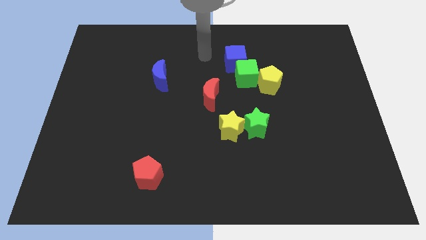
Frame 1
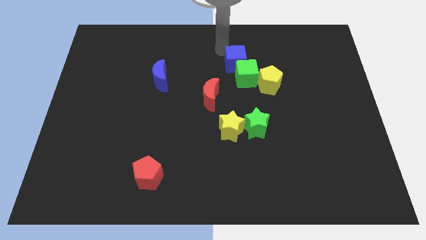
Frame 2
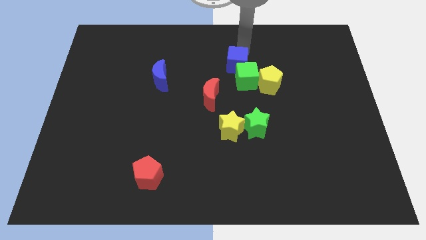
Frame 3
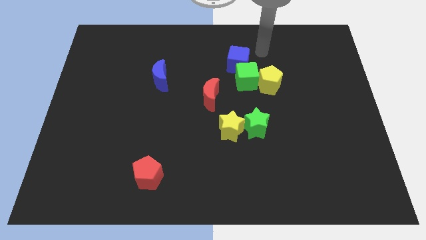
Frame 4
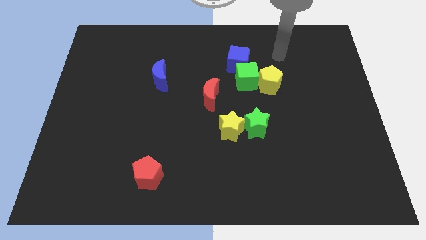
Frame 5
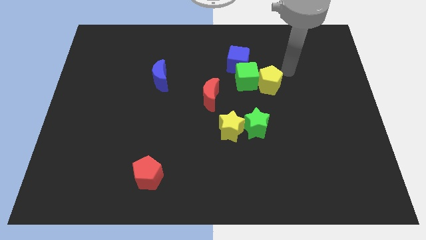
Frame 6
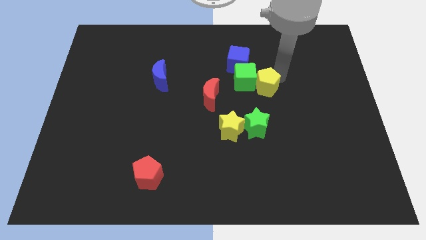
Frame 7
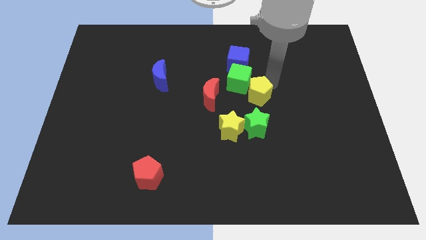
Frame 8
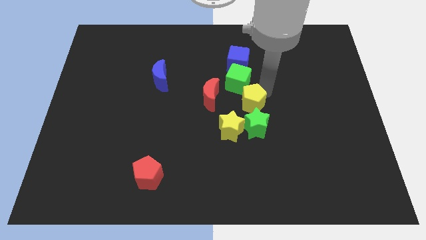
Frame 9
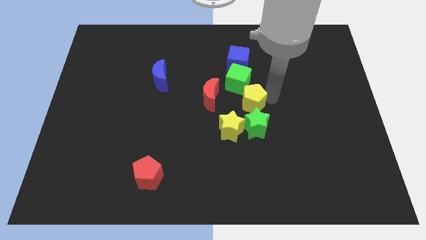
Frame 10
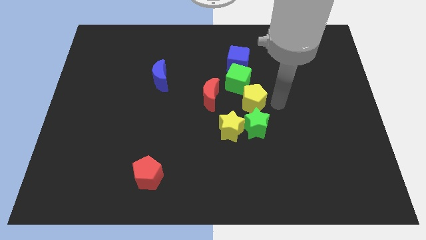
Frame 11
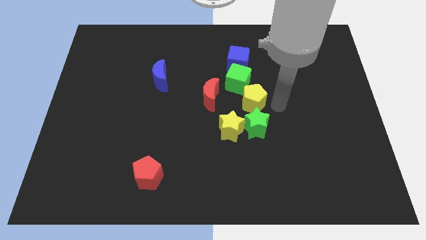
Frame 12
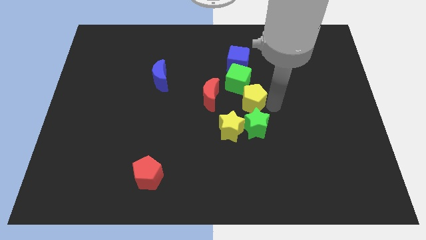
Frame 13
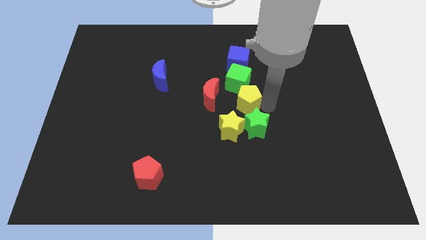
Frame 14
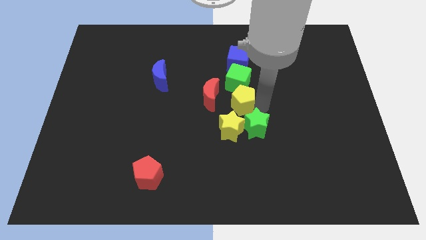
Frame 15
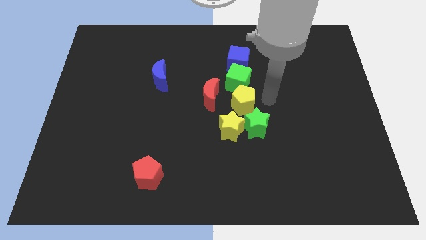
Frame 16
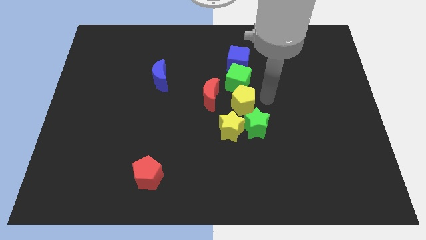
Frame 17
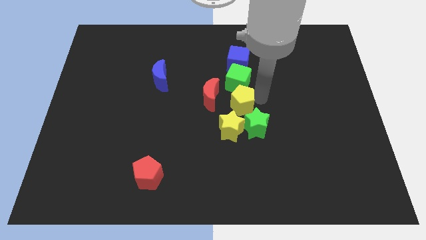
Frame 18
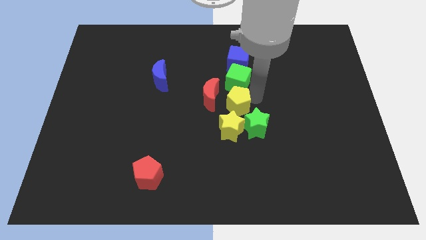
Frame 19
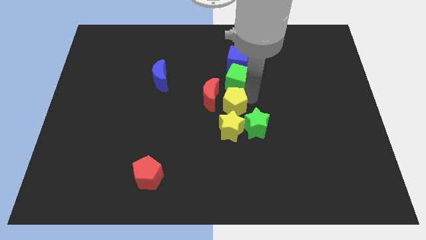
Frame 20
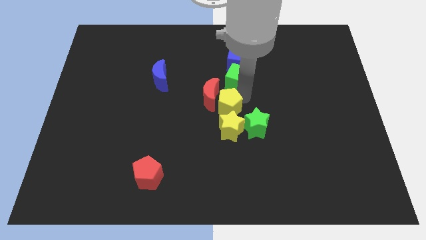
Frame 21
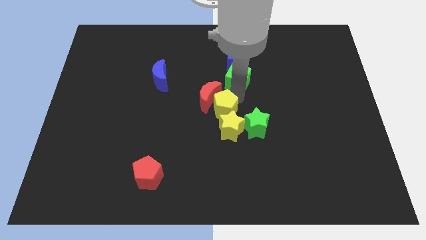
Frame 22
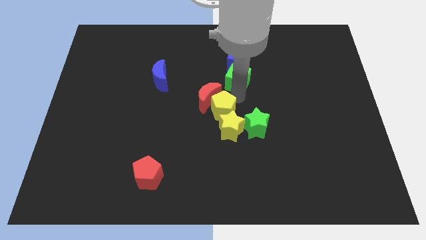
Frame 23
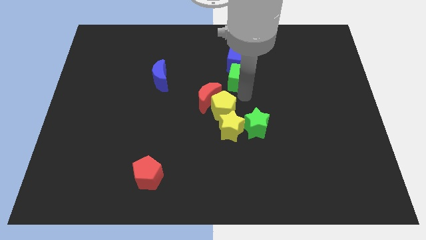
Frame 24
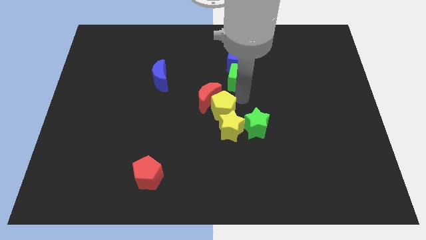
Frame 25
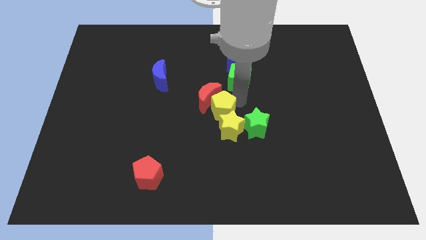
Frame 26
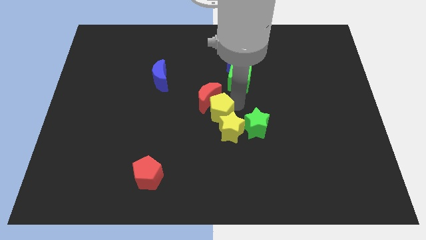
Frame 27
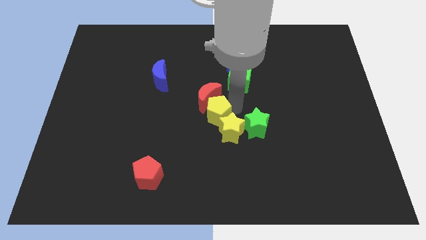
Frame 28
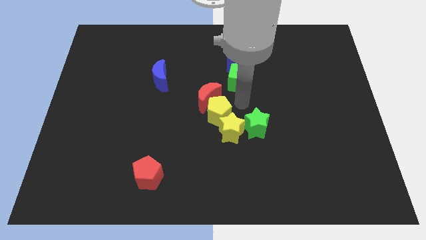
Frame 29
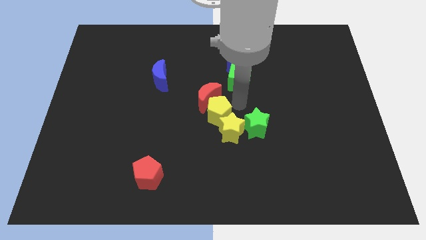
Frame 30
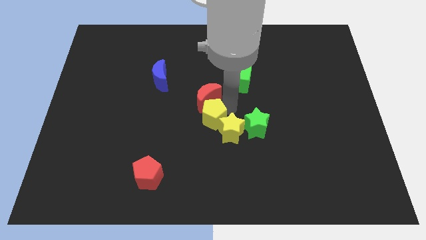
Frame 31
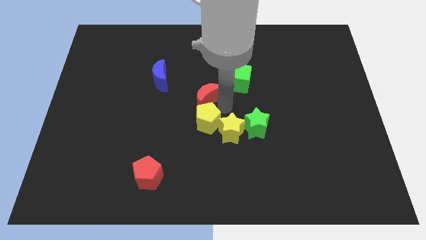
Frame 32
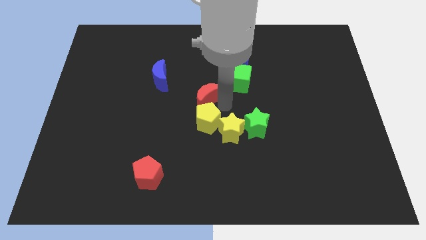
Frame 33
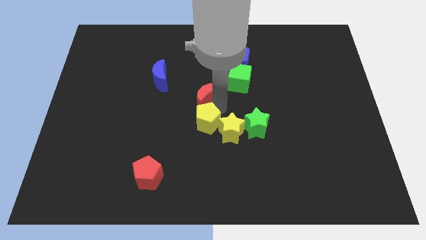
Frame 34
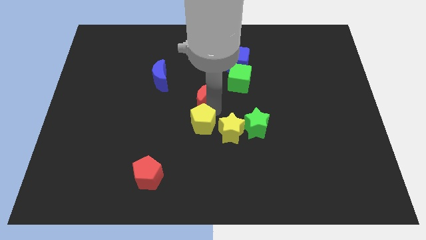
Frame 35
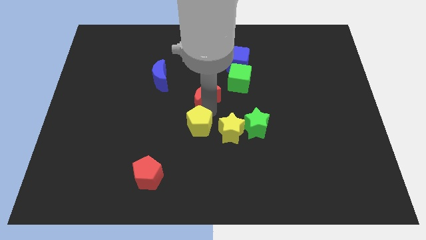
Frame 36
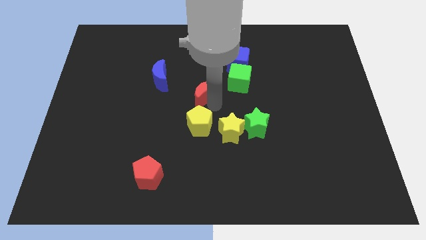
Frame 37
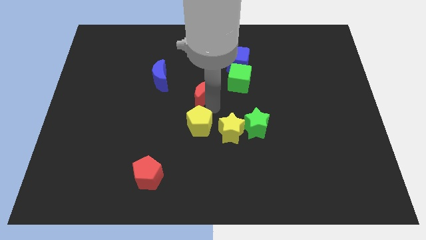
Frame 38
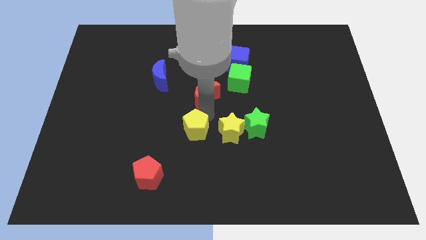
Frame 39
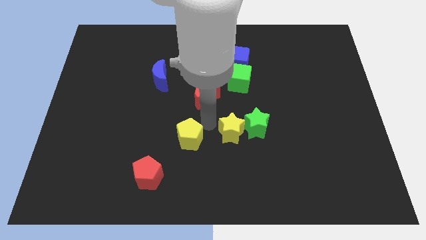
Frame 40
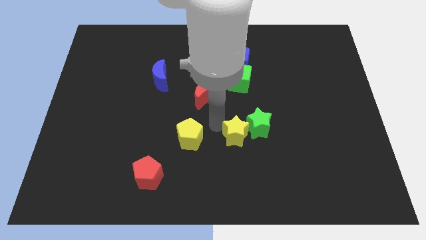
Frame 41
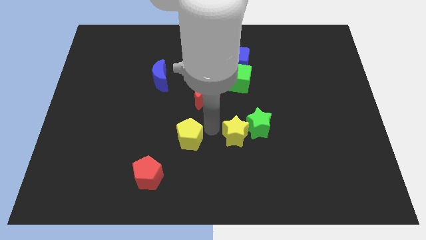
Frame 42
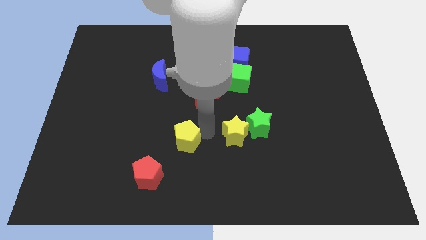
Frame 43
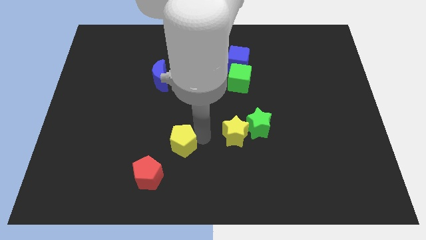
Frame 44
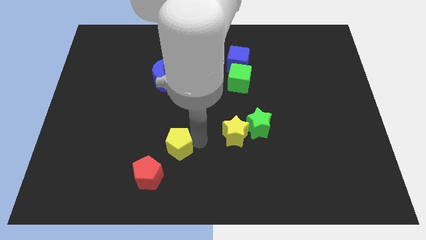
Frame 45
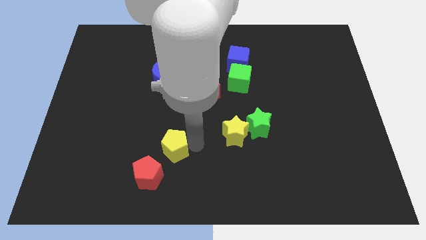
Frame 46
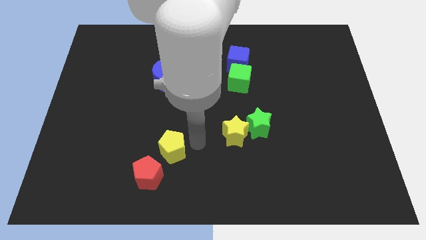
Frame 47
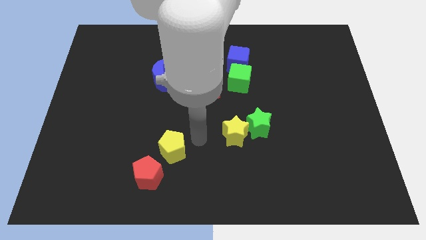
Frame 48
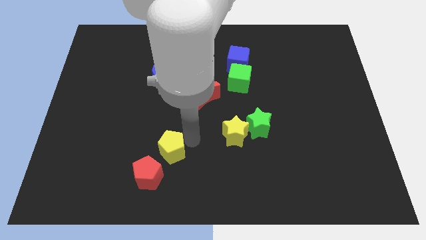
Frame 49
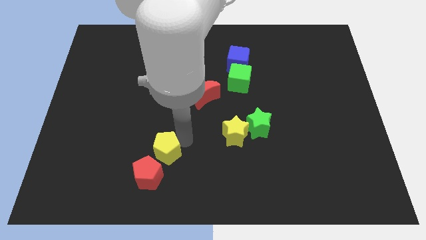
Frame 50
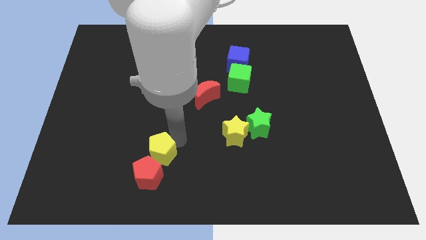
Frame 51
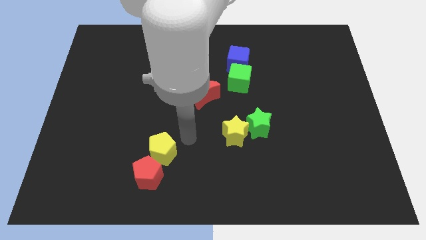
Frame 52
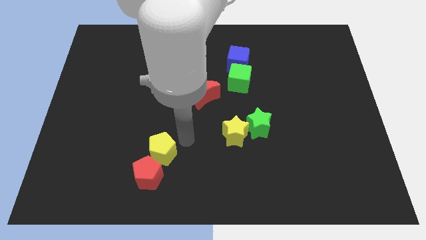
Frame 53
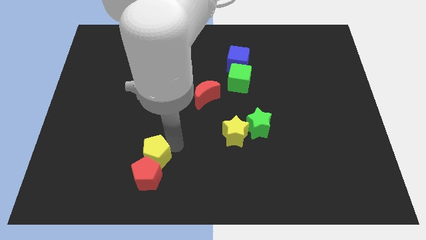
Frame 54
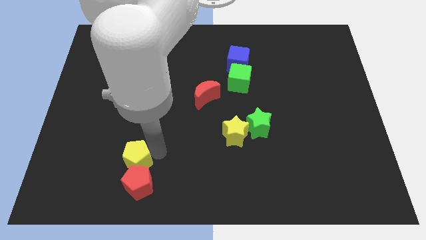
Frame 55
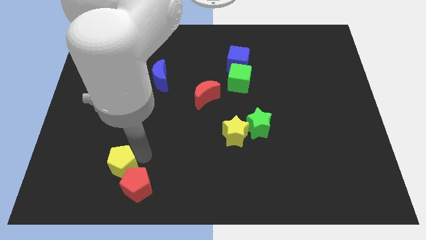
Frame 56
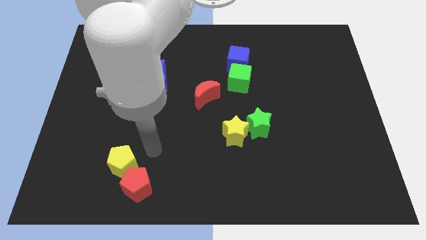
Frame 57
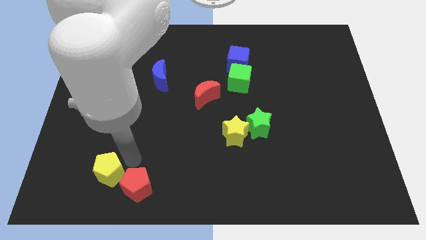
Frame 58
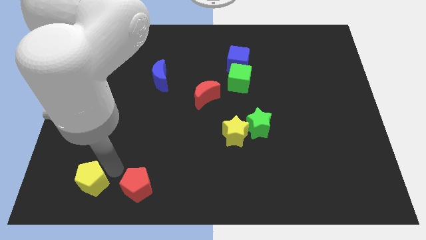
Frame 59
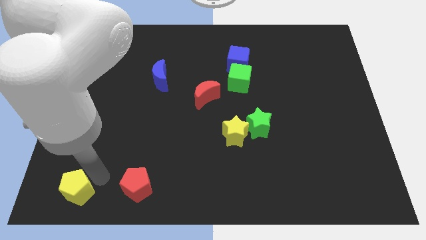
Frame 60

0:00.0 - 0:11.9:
slide the yellow pentagon to the lower left corner

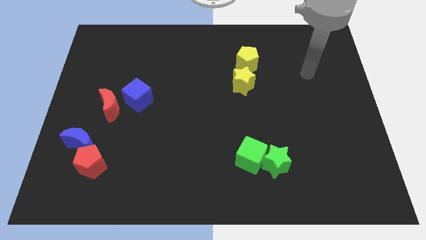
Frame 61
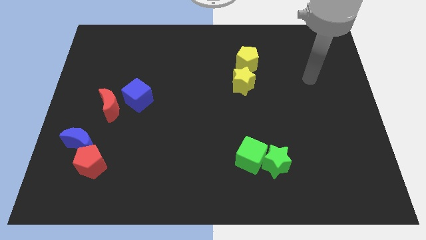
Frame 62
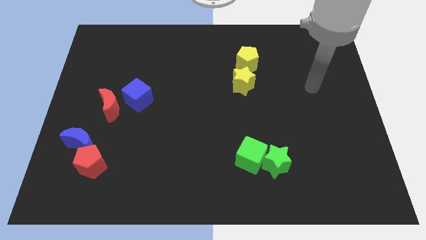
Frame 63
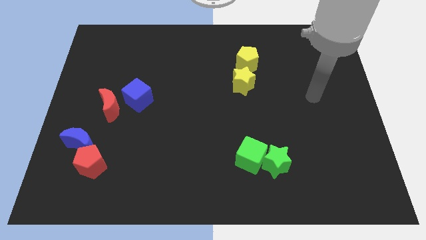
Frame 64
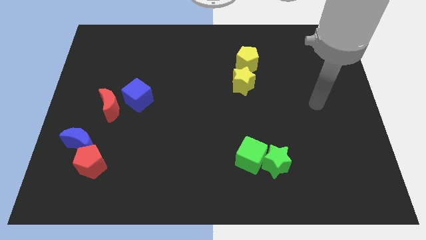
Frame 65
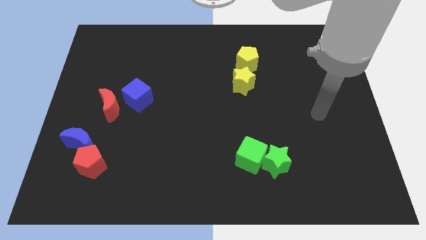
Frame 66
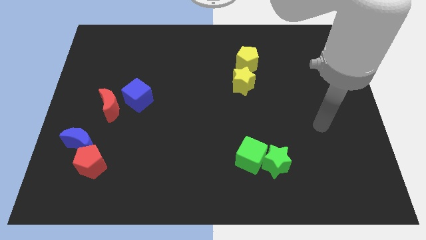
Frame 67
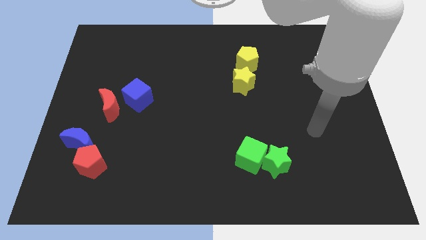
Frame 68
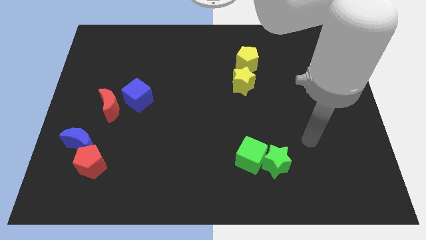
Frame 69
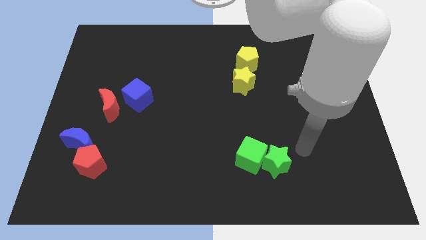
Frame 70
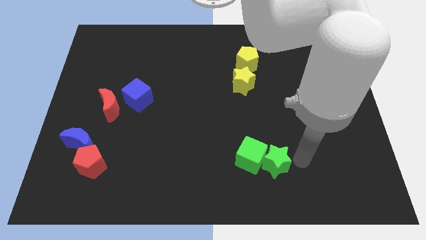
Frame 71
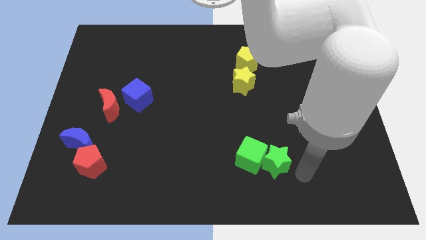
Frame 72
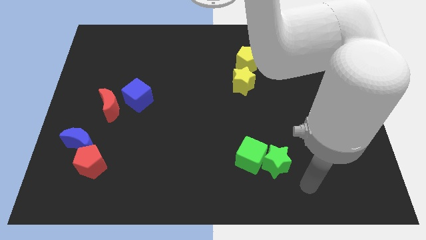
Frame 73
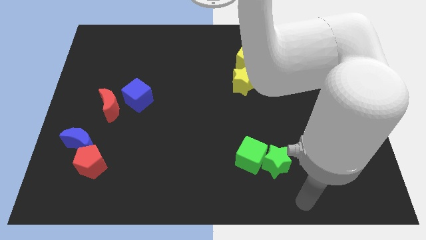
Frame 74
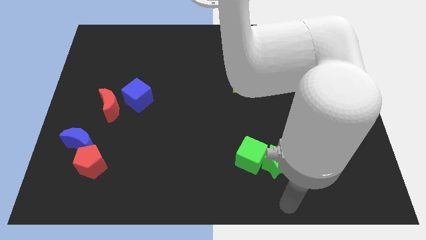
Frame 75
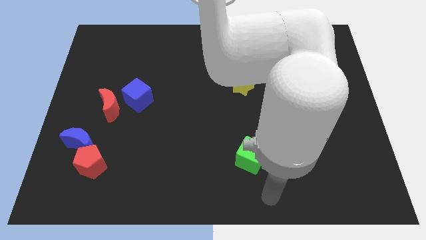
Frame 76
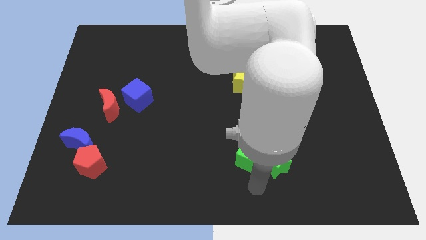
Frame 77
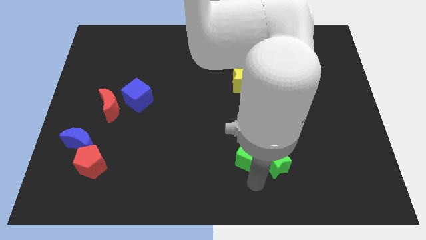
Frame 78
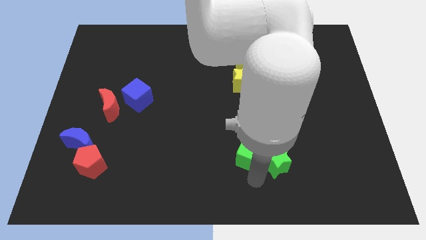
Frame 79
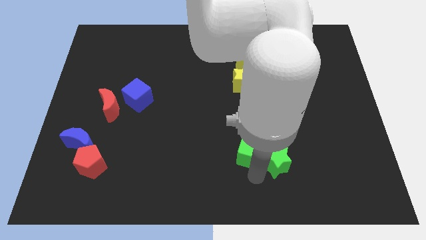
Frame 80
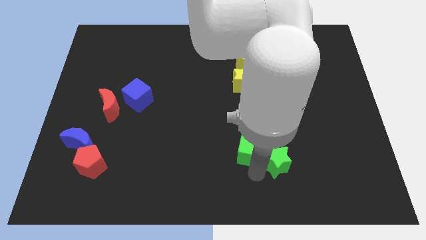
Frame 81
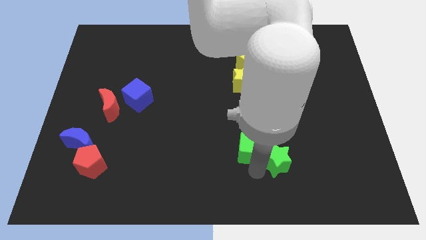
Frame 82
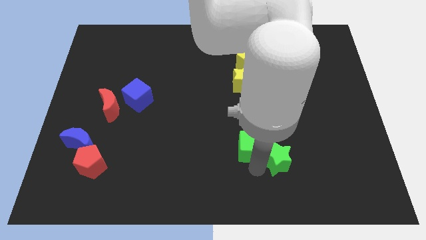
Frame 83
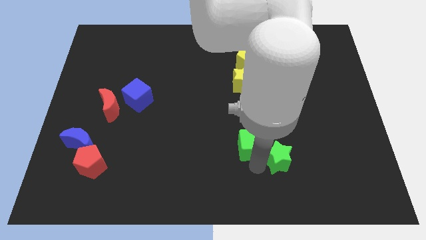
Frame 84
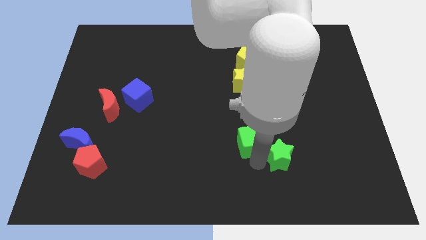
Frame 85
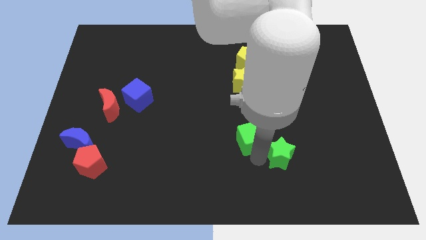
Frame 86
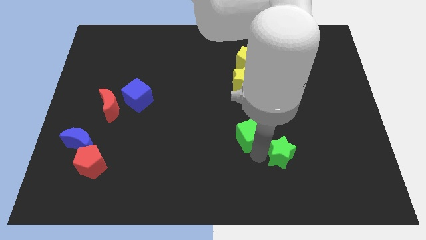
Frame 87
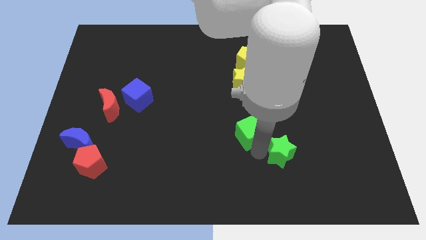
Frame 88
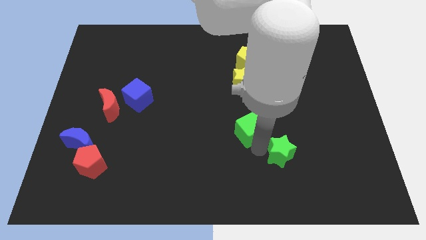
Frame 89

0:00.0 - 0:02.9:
slide the green cube to the center
